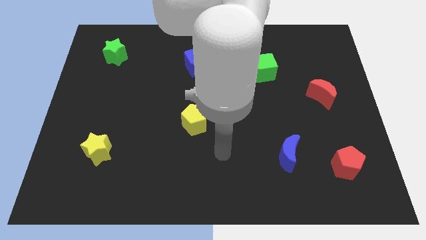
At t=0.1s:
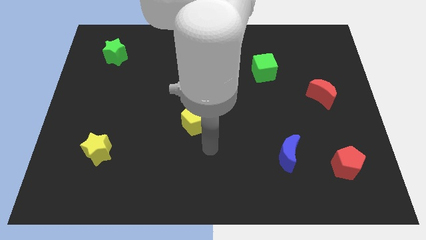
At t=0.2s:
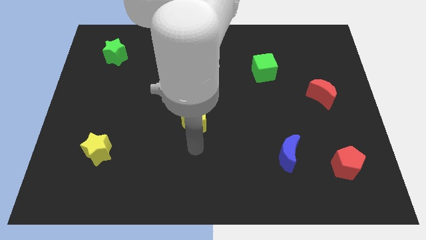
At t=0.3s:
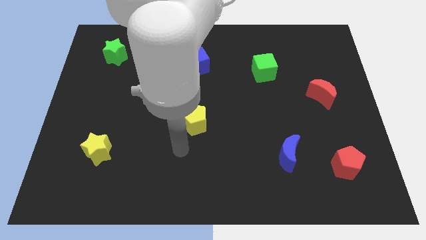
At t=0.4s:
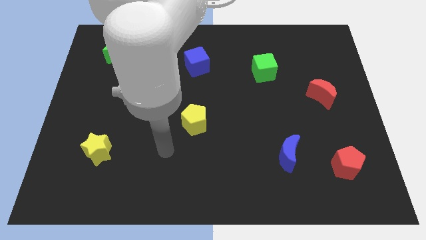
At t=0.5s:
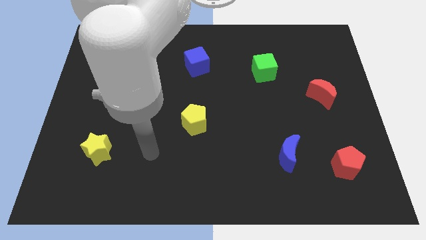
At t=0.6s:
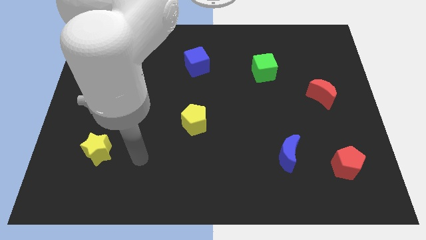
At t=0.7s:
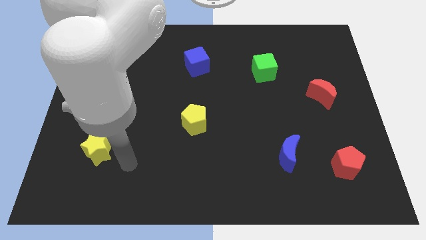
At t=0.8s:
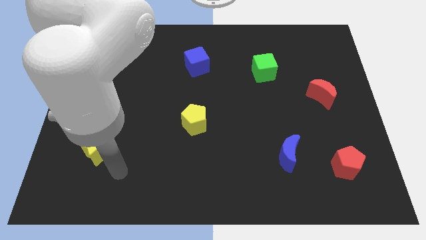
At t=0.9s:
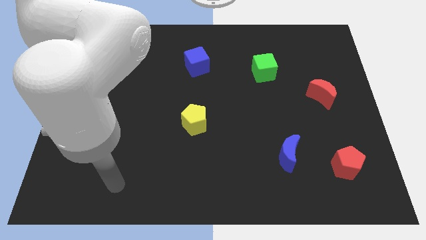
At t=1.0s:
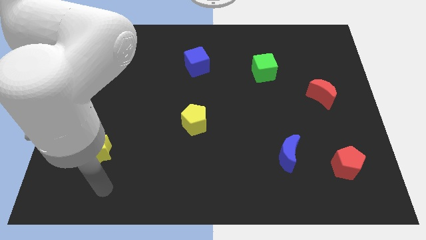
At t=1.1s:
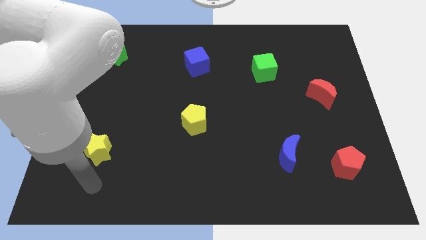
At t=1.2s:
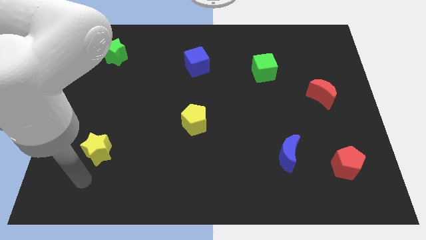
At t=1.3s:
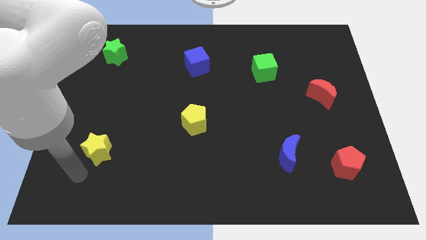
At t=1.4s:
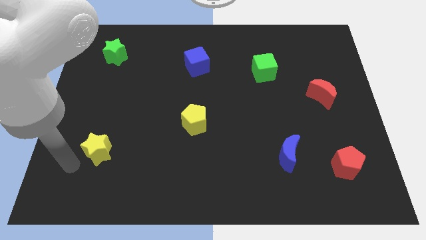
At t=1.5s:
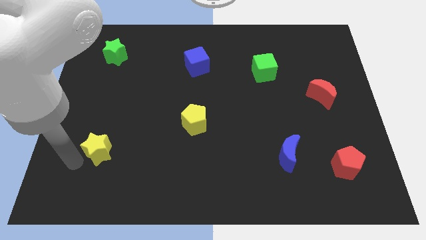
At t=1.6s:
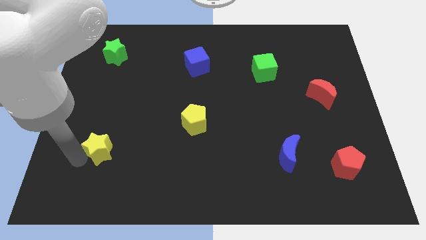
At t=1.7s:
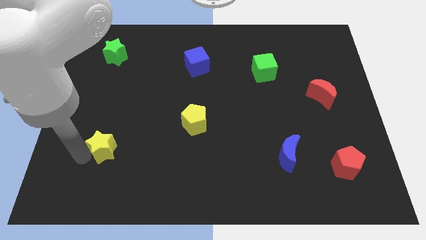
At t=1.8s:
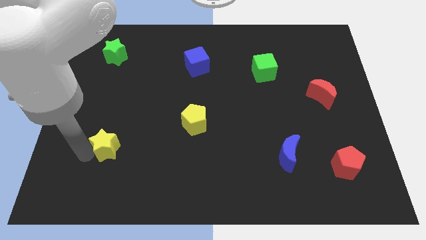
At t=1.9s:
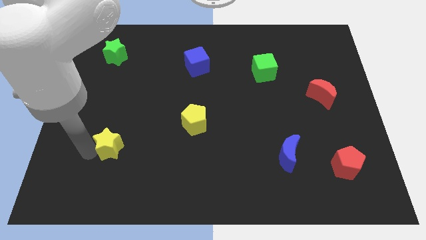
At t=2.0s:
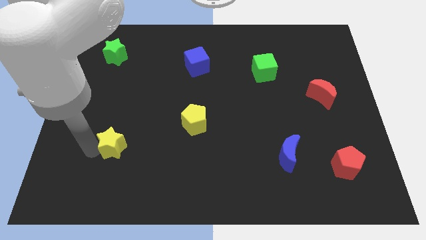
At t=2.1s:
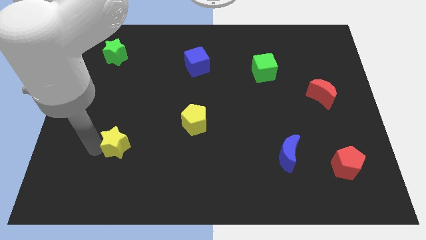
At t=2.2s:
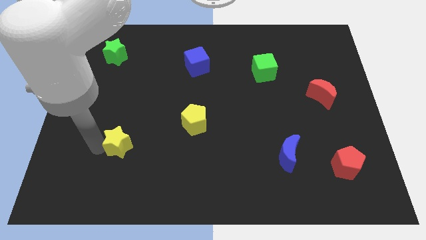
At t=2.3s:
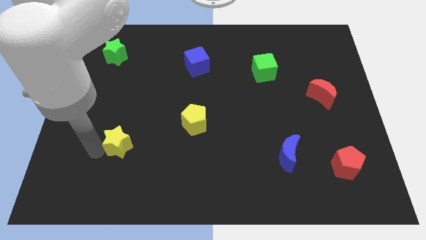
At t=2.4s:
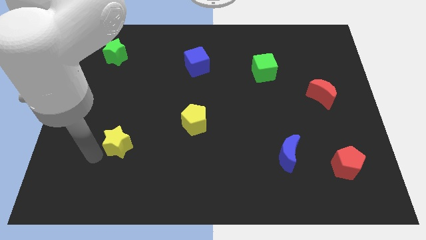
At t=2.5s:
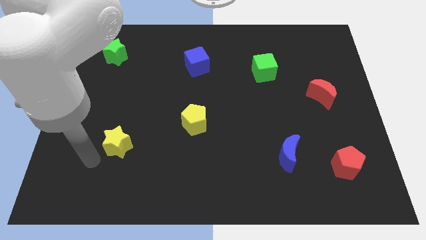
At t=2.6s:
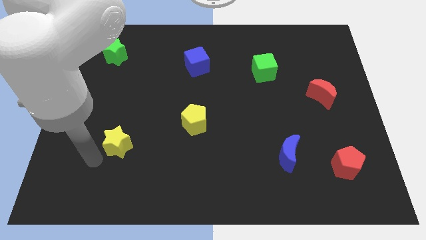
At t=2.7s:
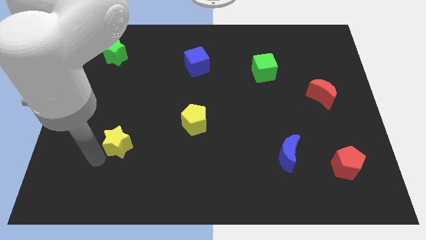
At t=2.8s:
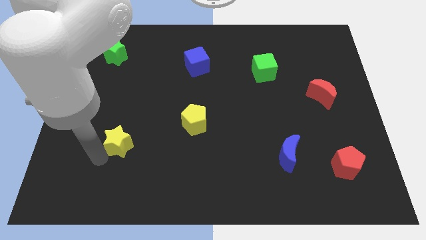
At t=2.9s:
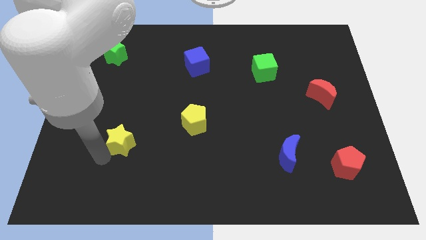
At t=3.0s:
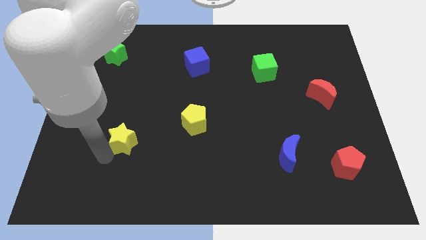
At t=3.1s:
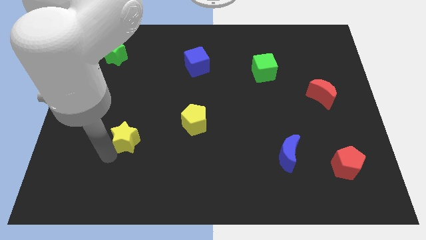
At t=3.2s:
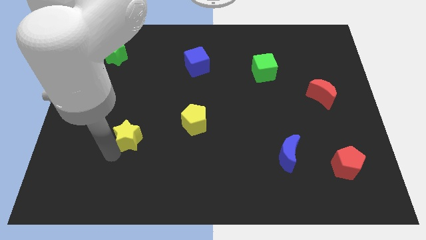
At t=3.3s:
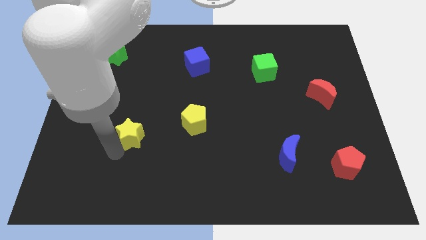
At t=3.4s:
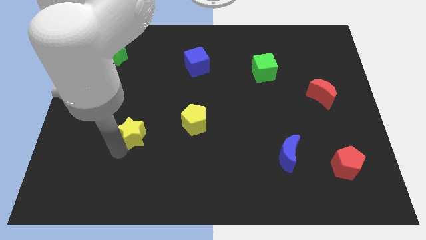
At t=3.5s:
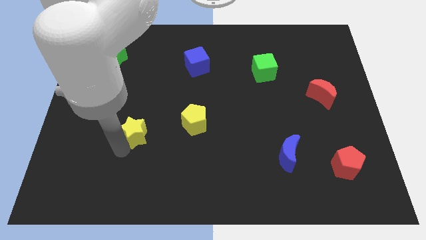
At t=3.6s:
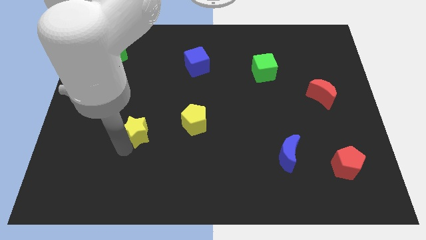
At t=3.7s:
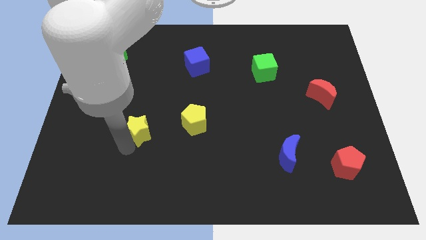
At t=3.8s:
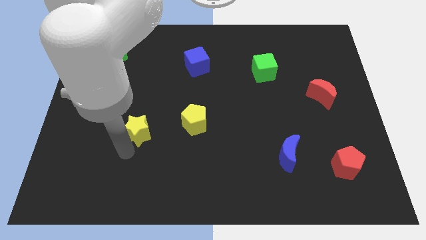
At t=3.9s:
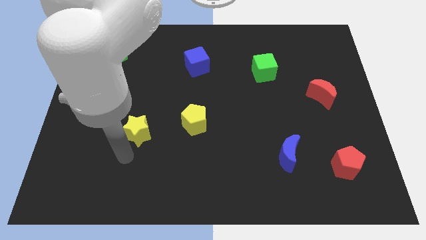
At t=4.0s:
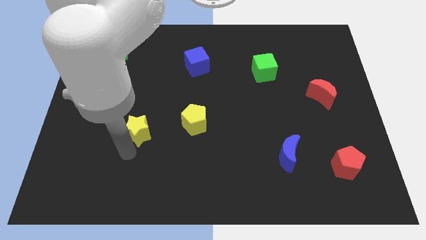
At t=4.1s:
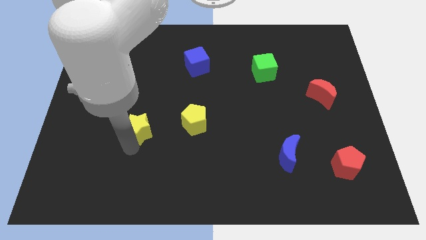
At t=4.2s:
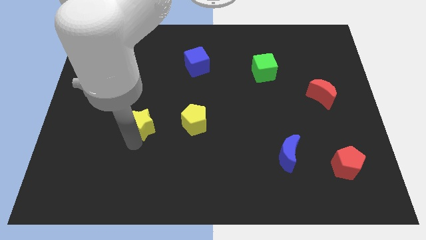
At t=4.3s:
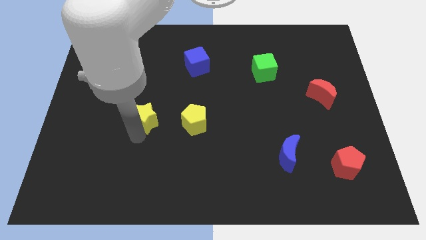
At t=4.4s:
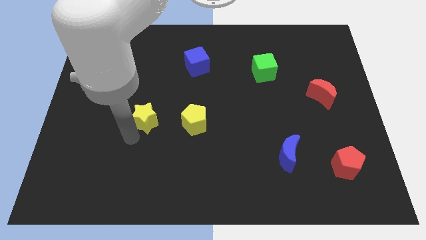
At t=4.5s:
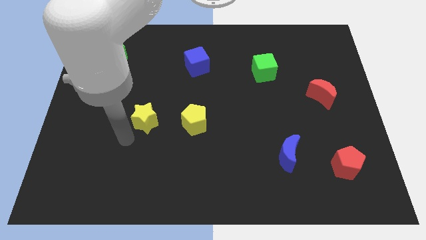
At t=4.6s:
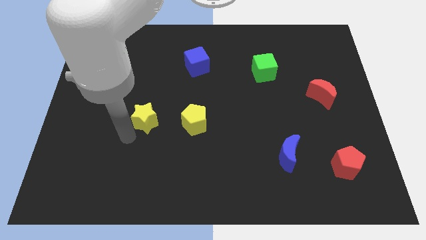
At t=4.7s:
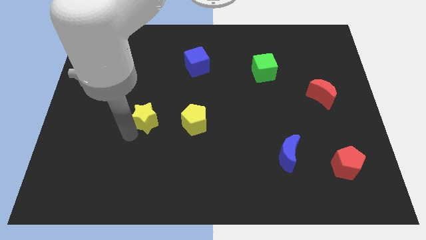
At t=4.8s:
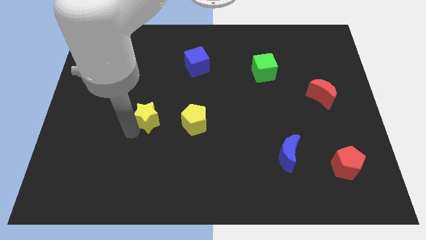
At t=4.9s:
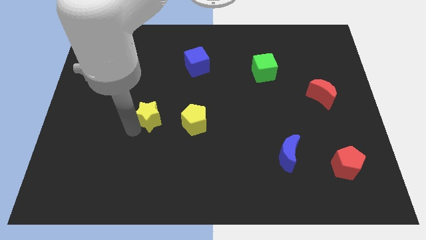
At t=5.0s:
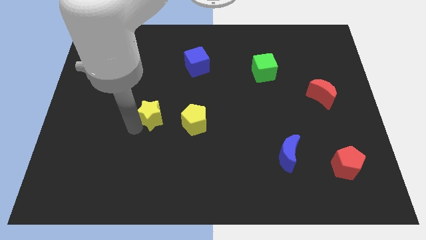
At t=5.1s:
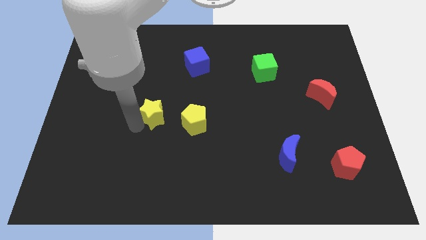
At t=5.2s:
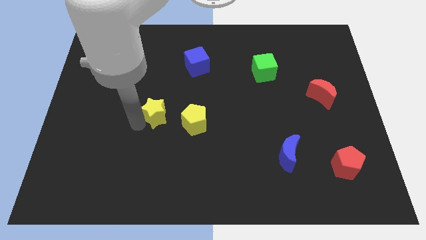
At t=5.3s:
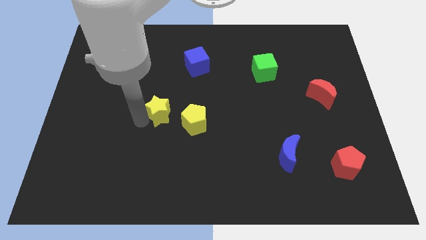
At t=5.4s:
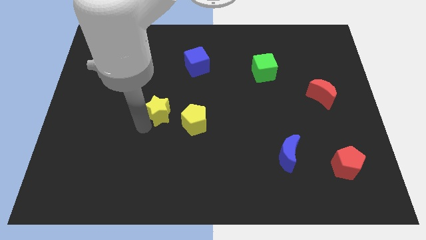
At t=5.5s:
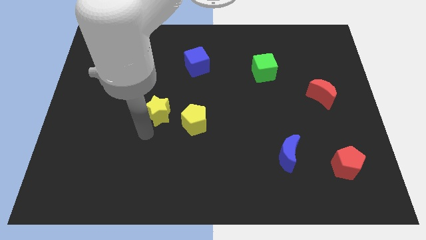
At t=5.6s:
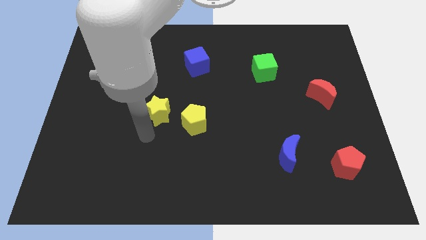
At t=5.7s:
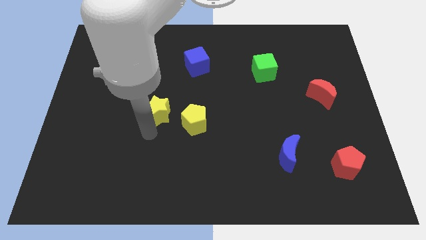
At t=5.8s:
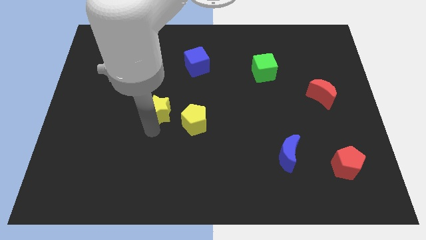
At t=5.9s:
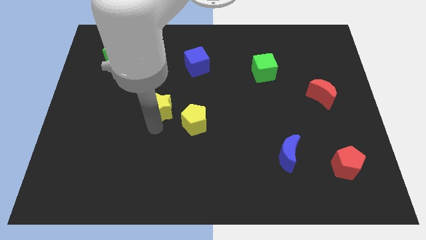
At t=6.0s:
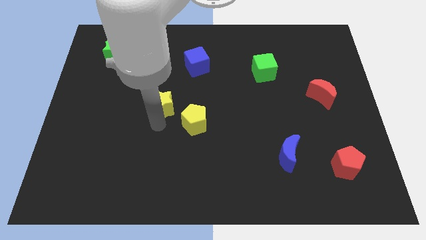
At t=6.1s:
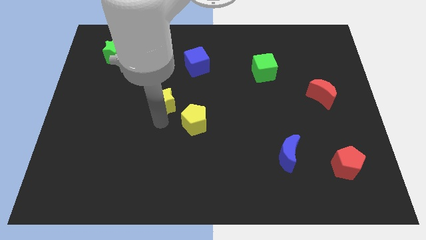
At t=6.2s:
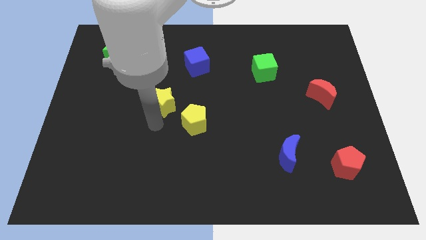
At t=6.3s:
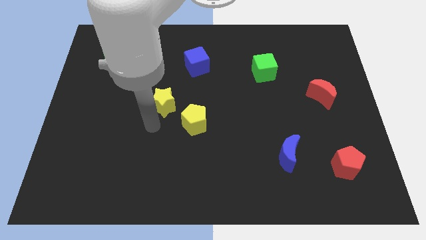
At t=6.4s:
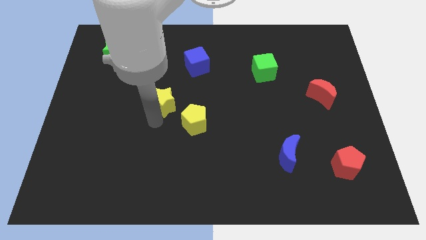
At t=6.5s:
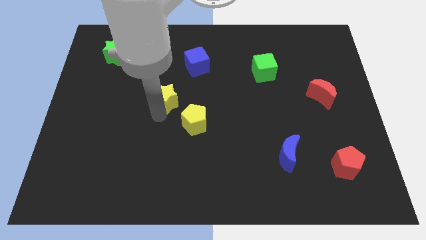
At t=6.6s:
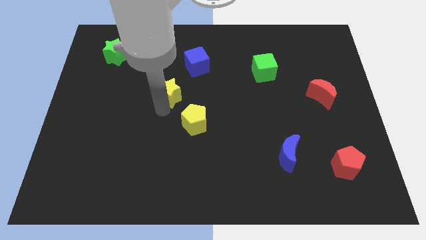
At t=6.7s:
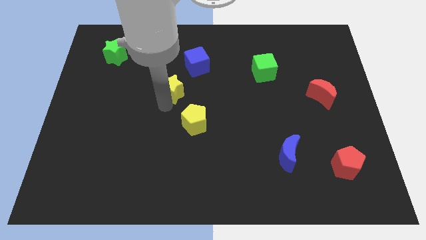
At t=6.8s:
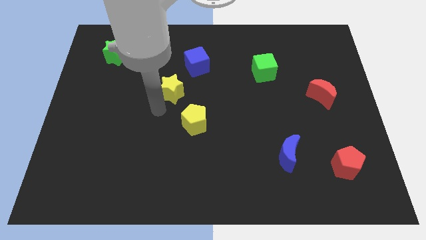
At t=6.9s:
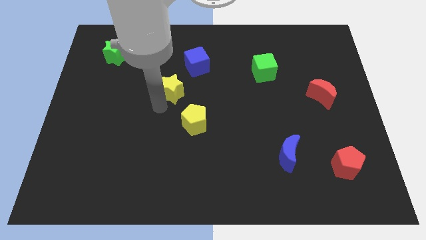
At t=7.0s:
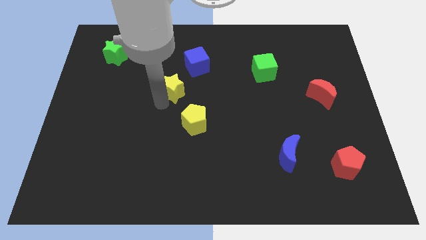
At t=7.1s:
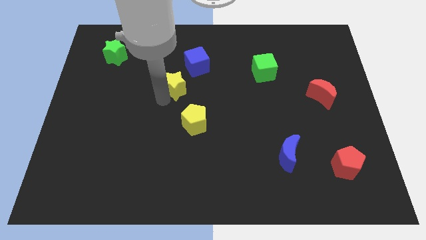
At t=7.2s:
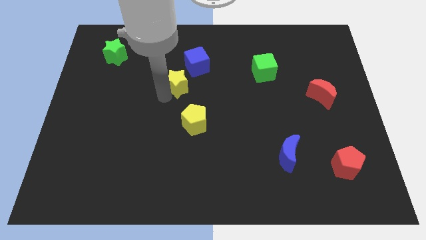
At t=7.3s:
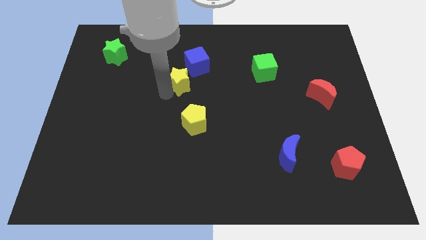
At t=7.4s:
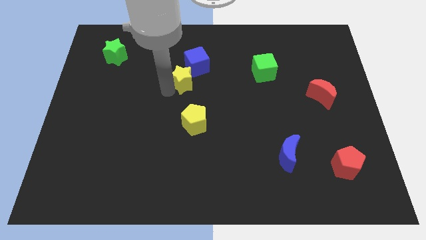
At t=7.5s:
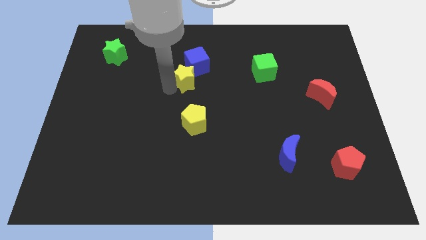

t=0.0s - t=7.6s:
push the yellow star towards the blue cube
